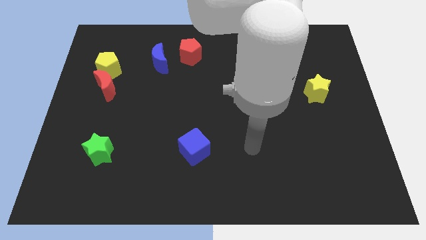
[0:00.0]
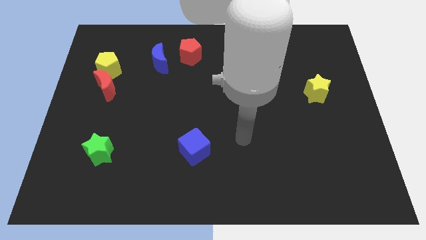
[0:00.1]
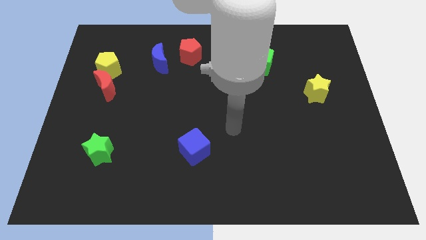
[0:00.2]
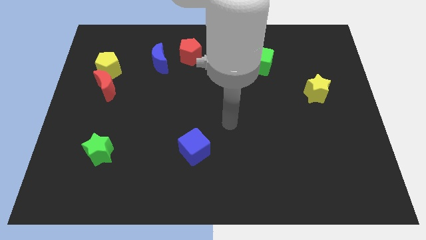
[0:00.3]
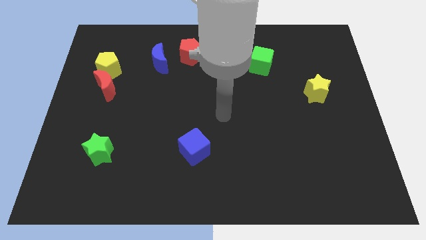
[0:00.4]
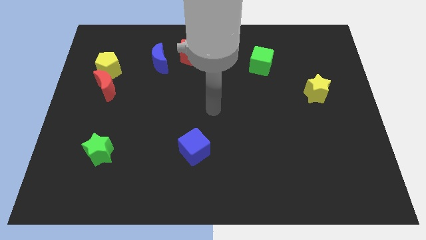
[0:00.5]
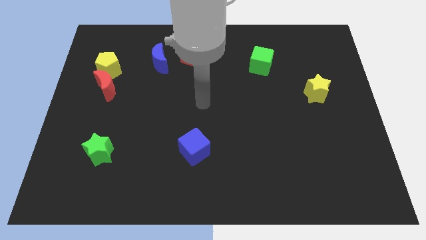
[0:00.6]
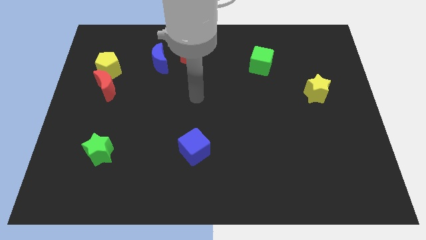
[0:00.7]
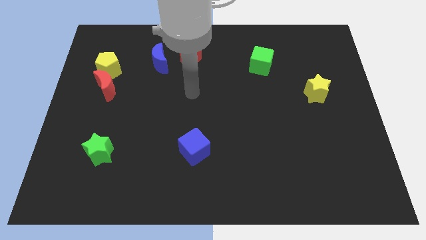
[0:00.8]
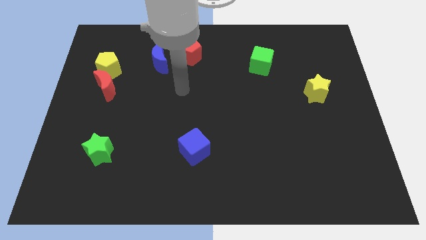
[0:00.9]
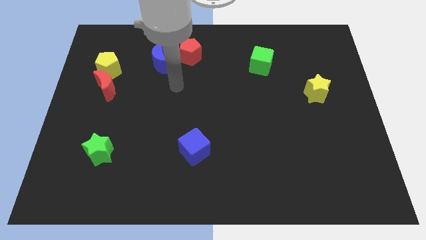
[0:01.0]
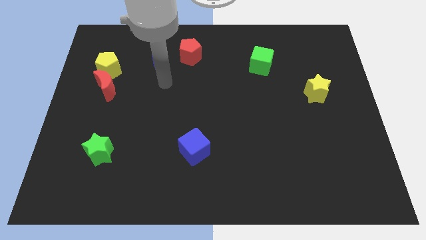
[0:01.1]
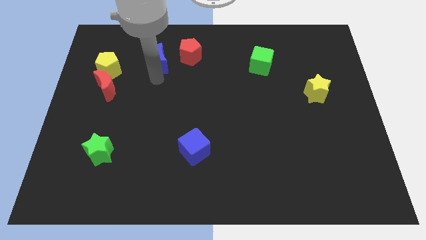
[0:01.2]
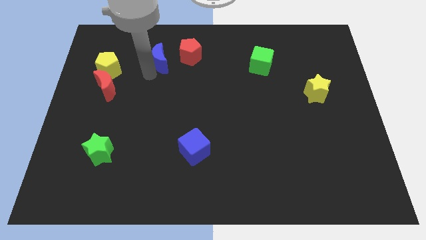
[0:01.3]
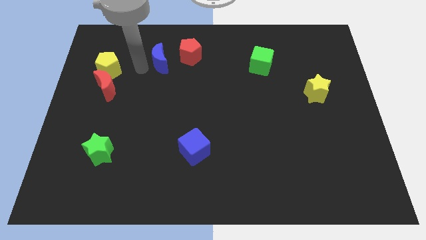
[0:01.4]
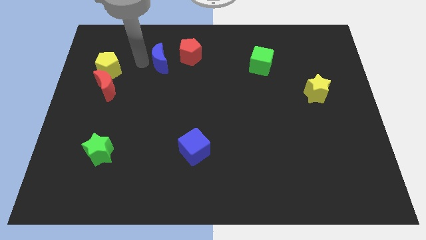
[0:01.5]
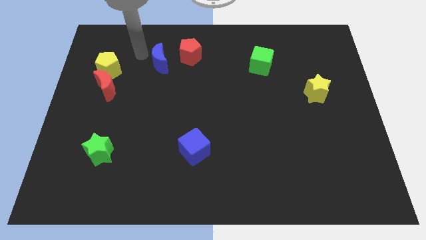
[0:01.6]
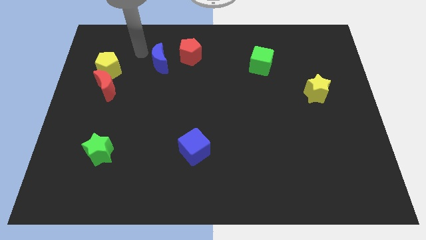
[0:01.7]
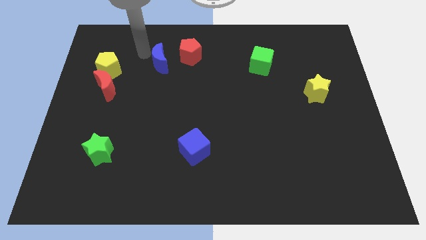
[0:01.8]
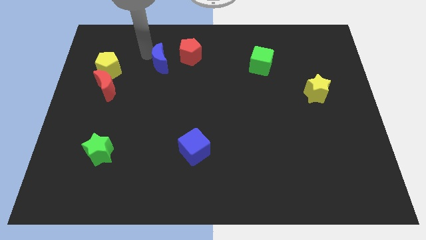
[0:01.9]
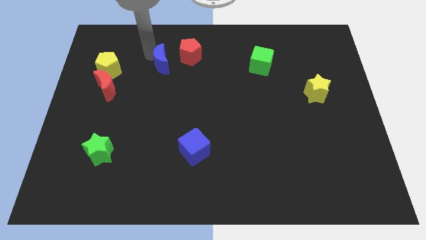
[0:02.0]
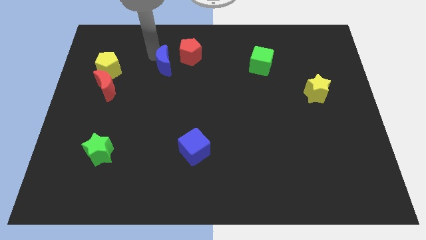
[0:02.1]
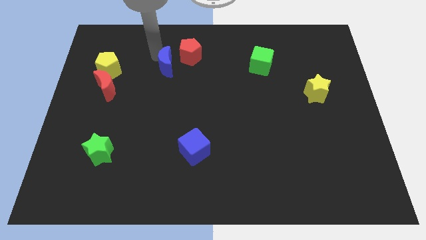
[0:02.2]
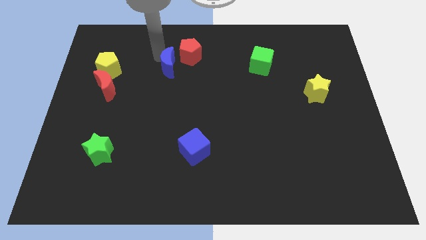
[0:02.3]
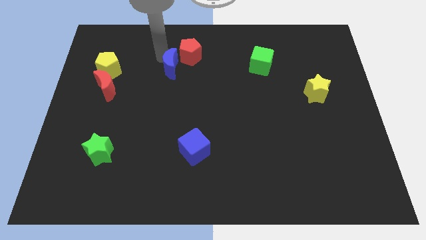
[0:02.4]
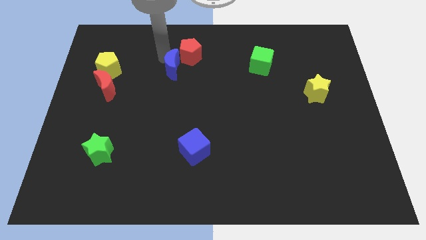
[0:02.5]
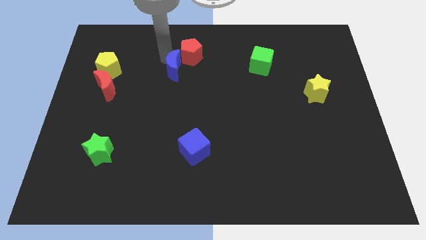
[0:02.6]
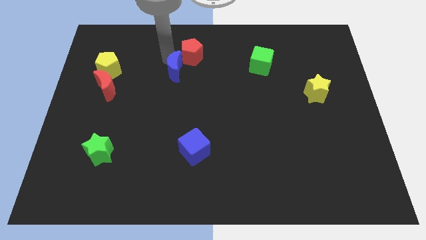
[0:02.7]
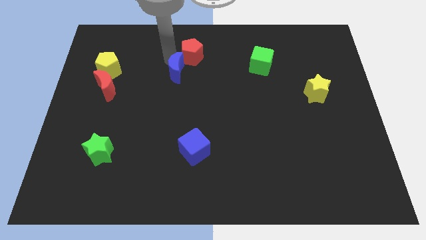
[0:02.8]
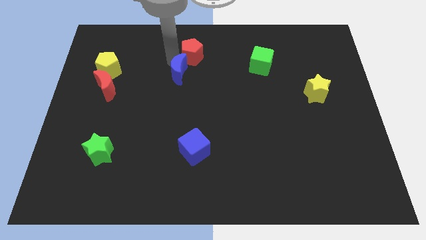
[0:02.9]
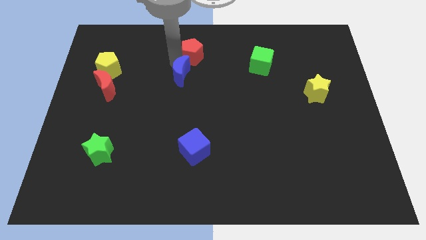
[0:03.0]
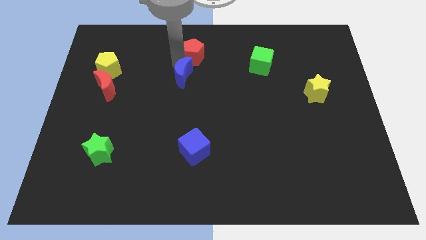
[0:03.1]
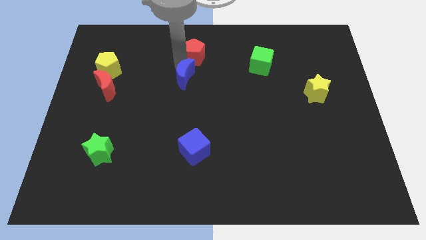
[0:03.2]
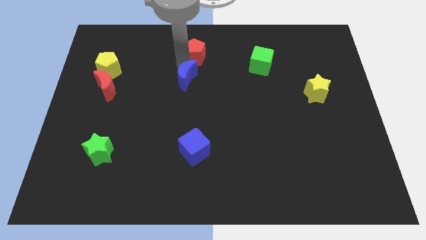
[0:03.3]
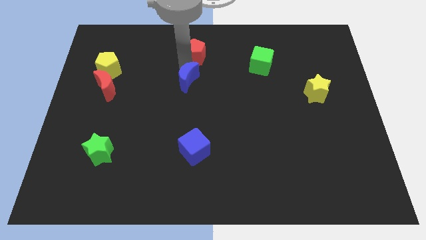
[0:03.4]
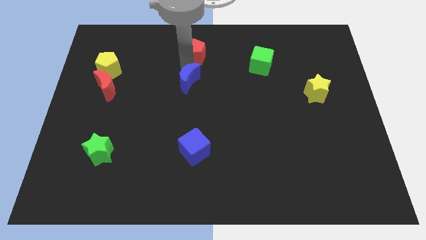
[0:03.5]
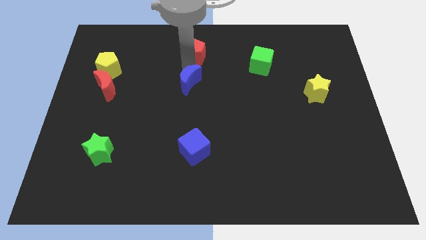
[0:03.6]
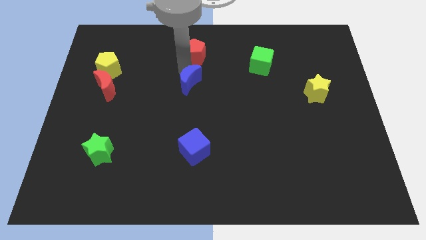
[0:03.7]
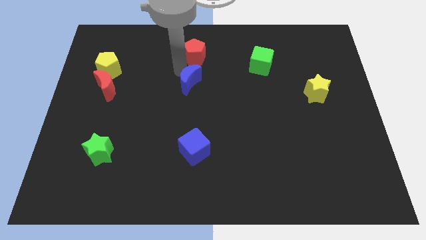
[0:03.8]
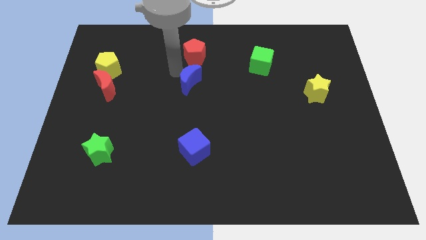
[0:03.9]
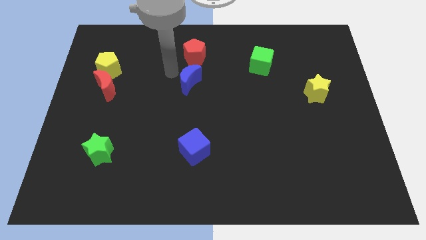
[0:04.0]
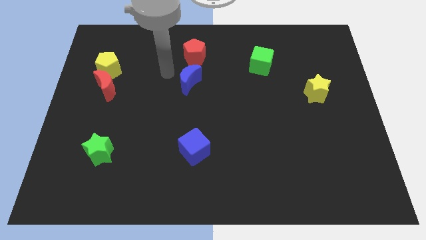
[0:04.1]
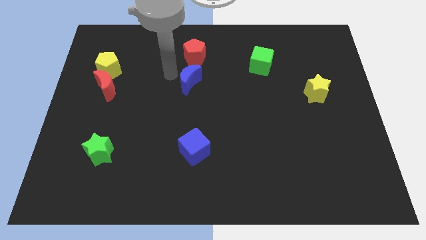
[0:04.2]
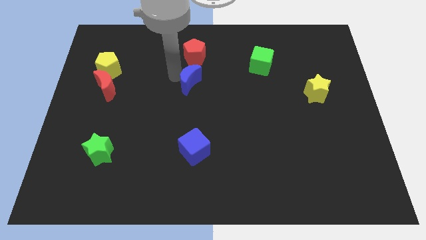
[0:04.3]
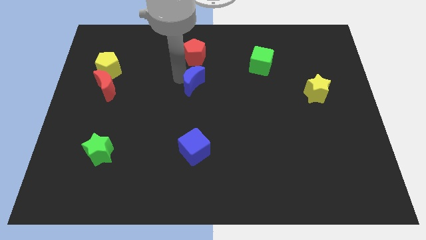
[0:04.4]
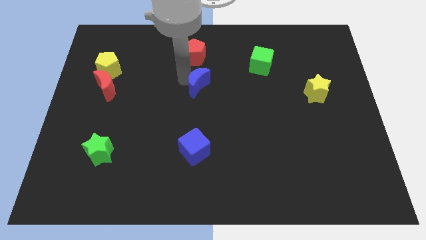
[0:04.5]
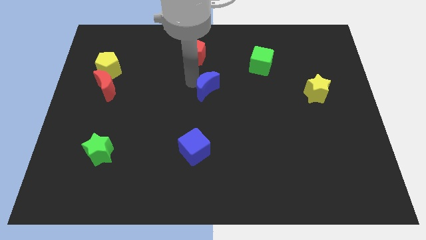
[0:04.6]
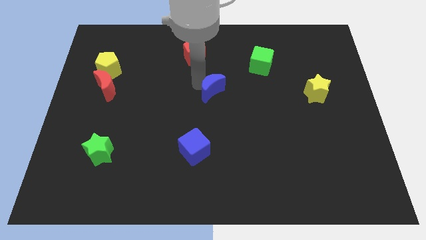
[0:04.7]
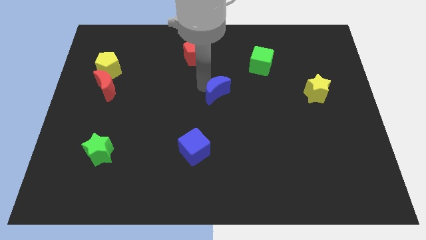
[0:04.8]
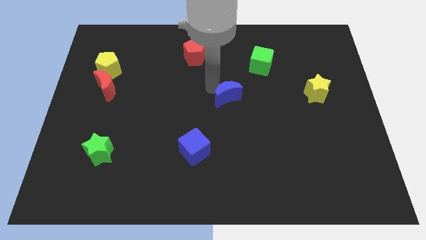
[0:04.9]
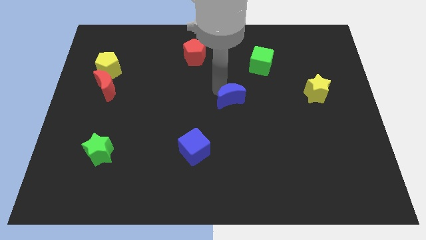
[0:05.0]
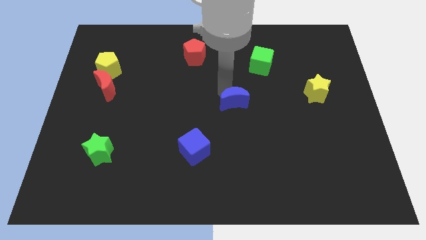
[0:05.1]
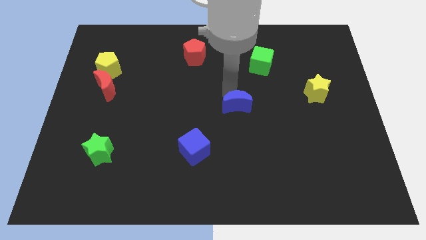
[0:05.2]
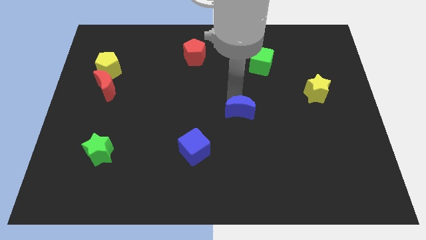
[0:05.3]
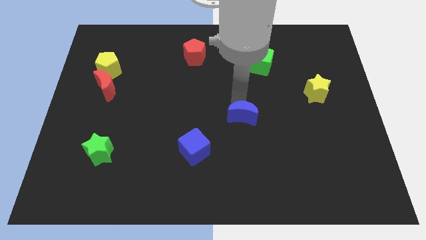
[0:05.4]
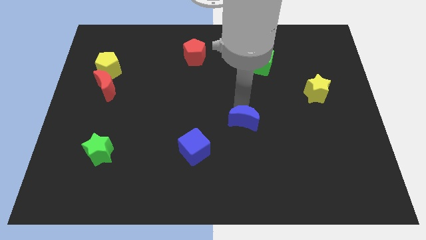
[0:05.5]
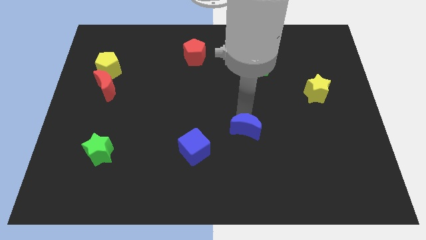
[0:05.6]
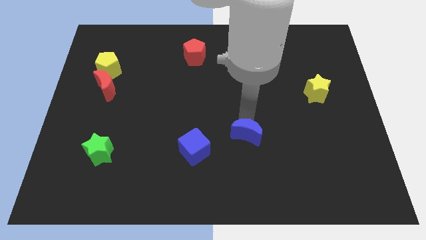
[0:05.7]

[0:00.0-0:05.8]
put the blue moon just right of the blue cube
